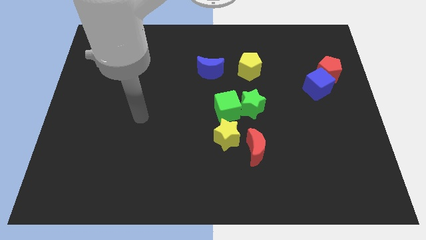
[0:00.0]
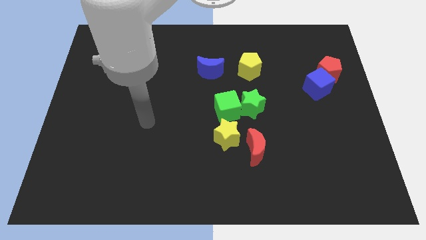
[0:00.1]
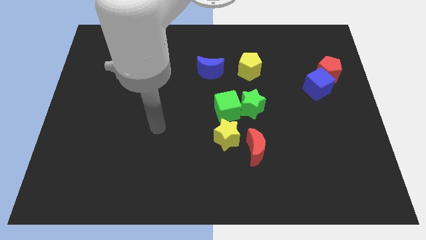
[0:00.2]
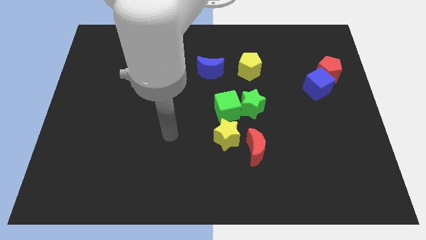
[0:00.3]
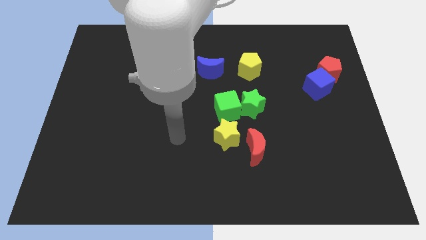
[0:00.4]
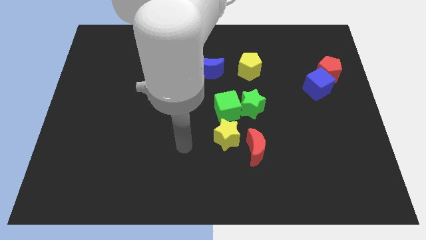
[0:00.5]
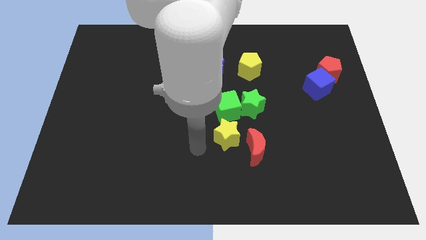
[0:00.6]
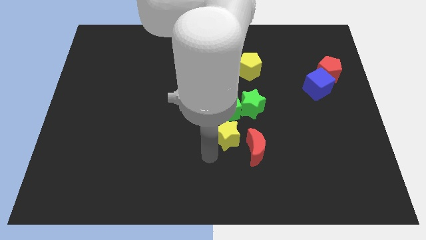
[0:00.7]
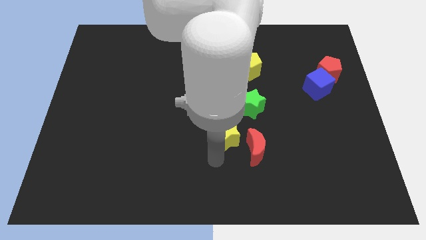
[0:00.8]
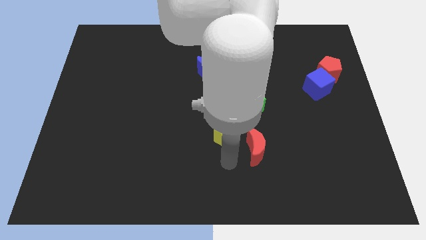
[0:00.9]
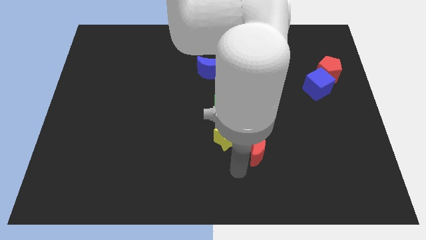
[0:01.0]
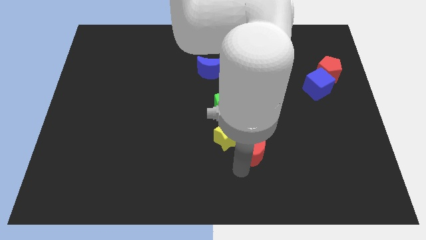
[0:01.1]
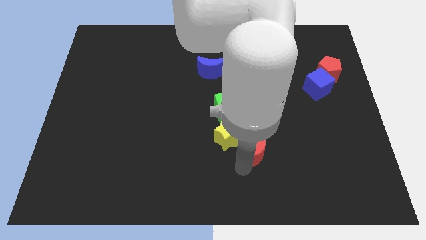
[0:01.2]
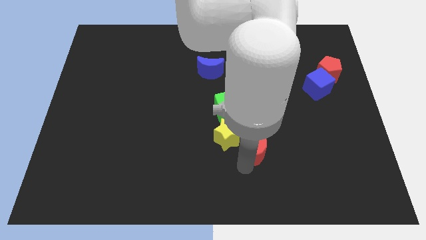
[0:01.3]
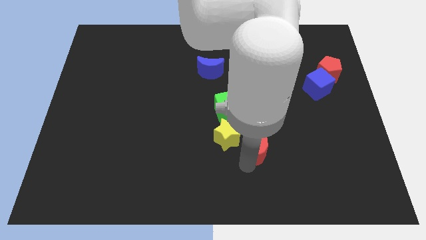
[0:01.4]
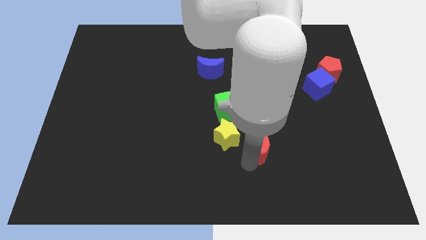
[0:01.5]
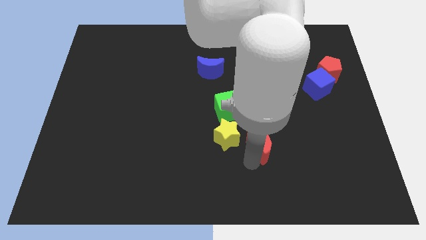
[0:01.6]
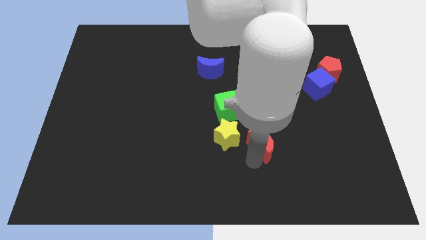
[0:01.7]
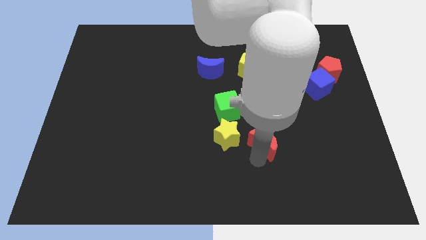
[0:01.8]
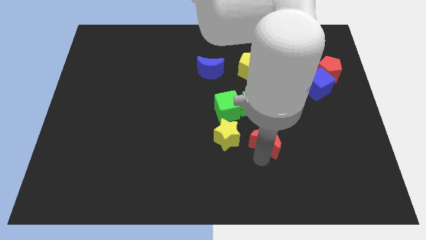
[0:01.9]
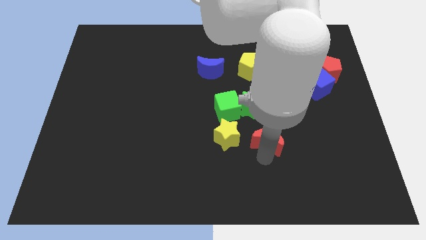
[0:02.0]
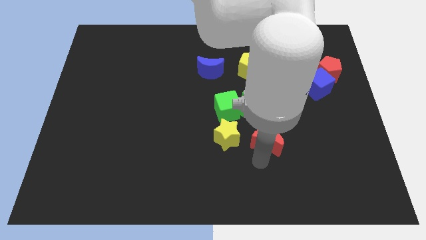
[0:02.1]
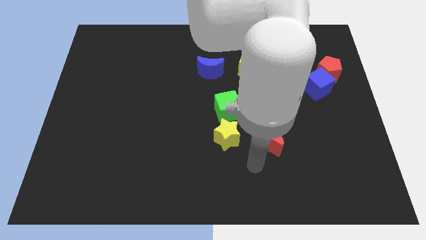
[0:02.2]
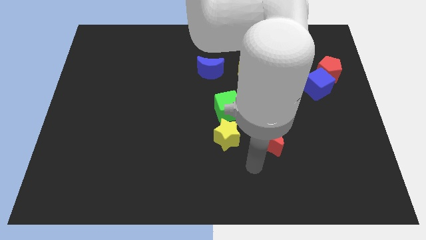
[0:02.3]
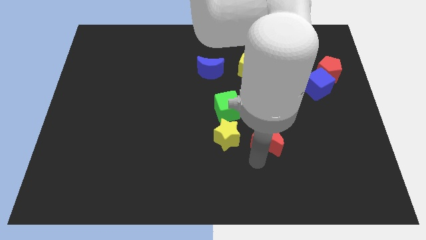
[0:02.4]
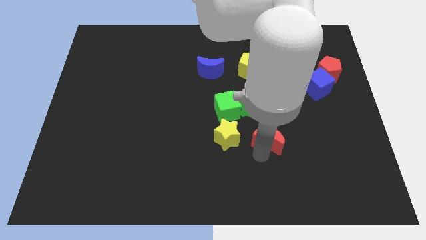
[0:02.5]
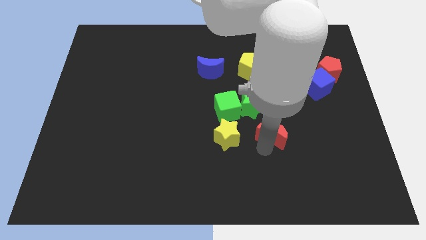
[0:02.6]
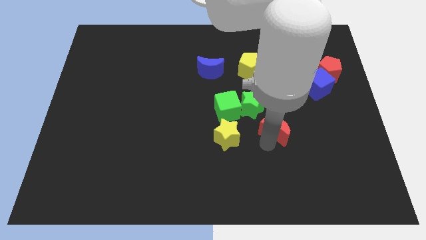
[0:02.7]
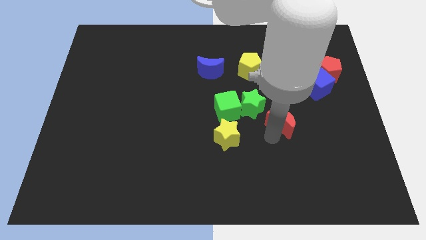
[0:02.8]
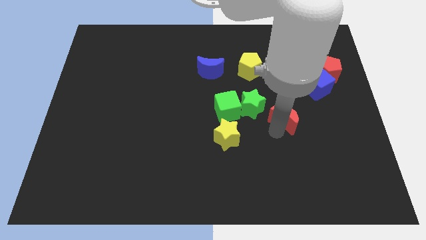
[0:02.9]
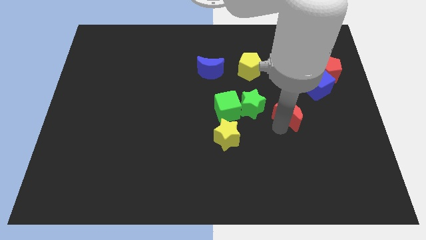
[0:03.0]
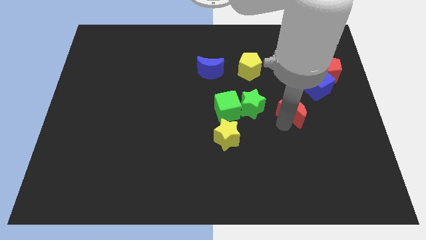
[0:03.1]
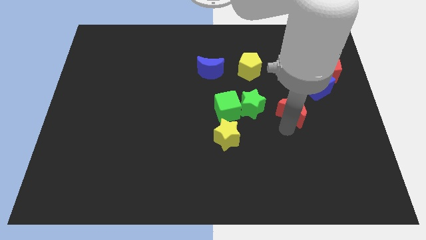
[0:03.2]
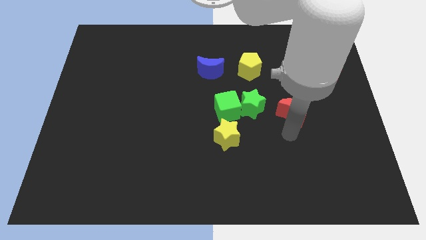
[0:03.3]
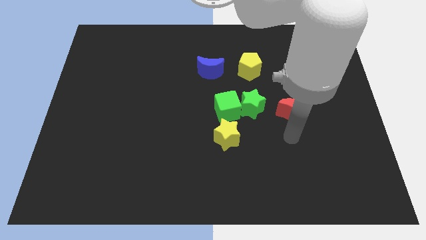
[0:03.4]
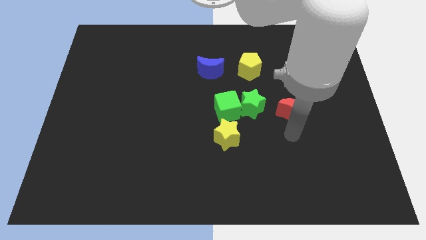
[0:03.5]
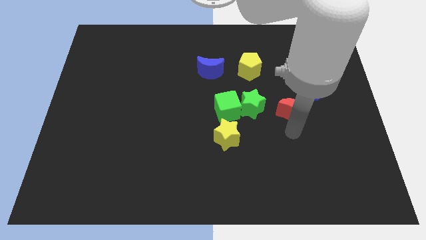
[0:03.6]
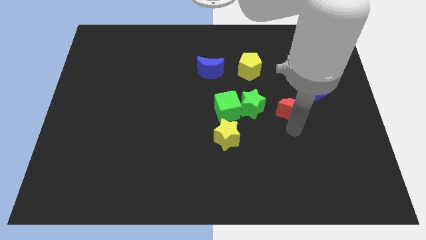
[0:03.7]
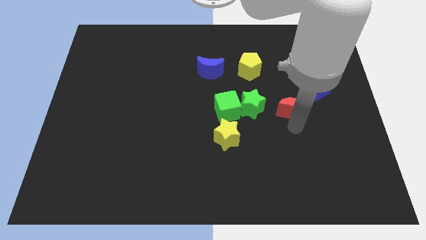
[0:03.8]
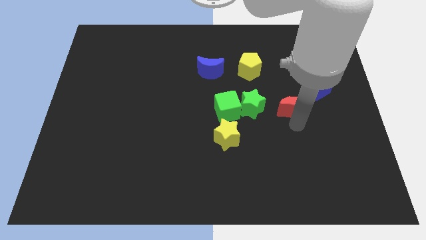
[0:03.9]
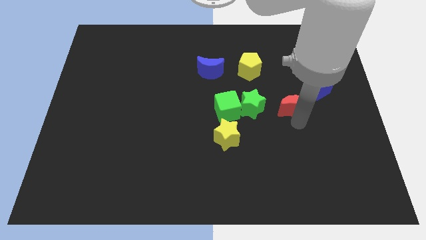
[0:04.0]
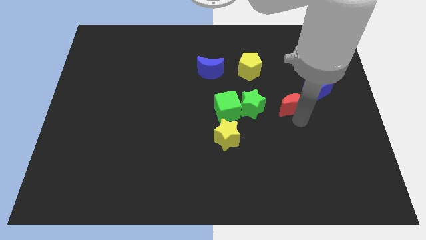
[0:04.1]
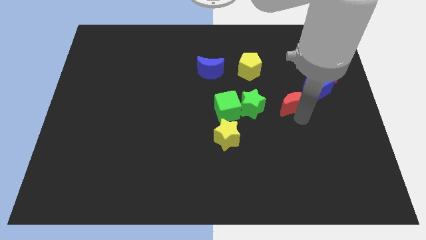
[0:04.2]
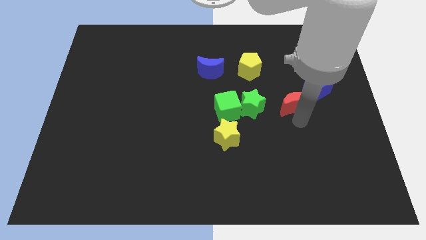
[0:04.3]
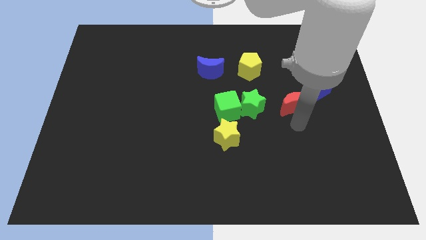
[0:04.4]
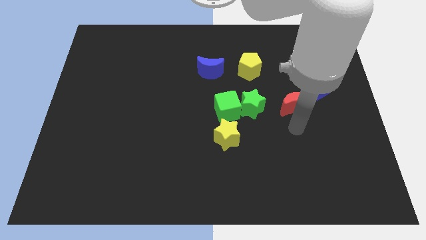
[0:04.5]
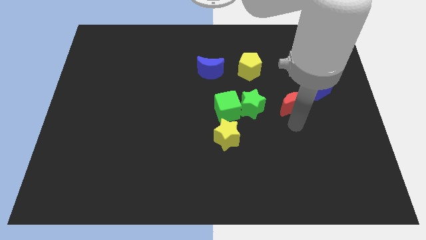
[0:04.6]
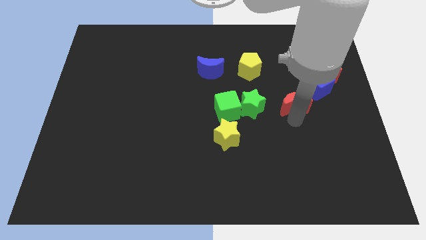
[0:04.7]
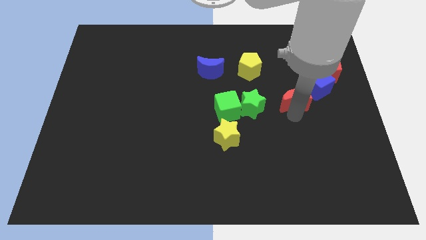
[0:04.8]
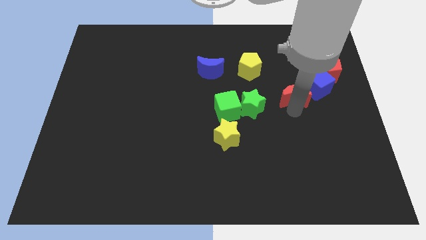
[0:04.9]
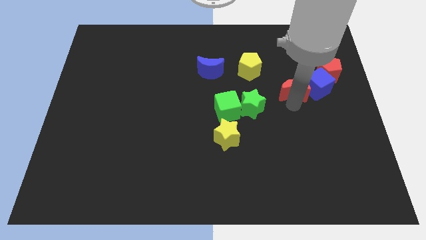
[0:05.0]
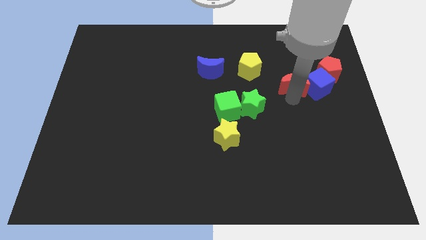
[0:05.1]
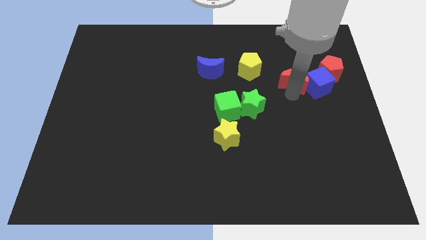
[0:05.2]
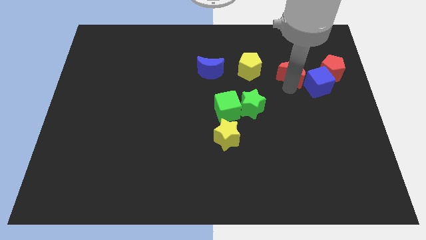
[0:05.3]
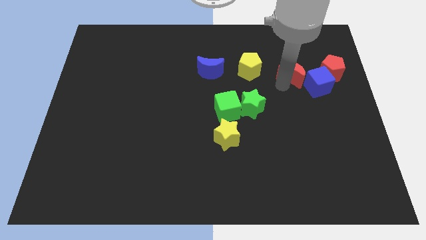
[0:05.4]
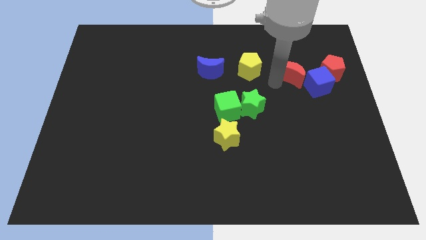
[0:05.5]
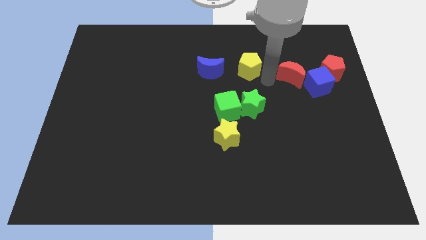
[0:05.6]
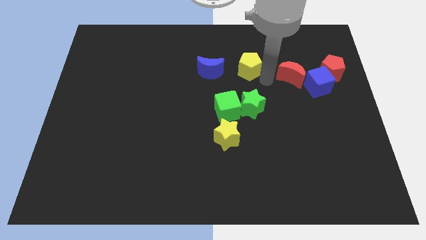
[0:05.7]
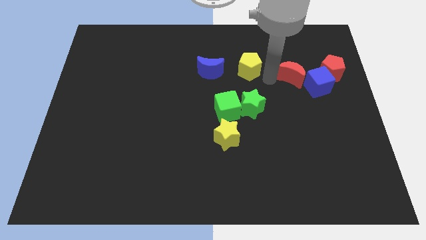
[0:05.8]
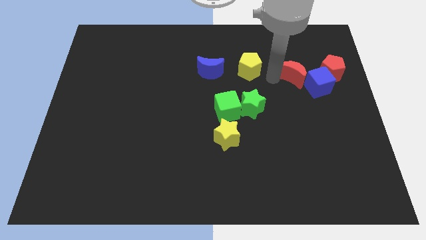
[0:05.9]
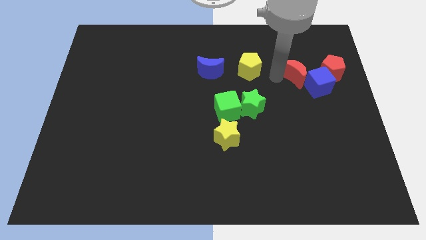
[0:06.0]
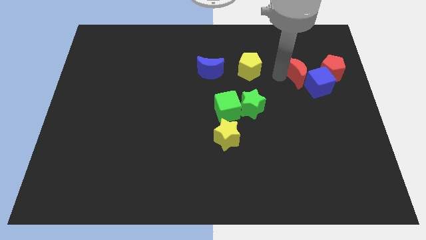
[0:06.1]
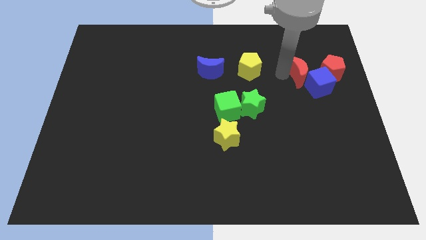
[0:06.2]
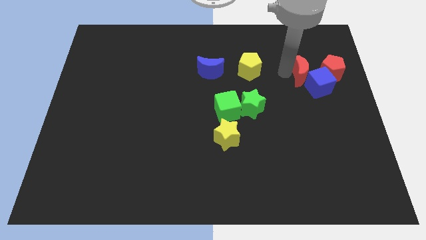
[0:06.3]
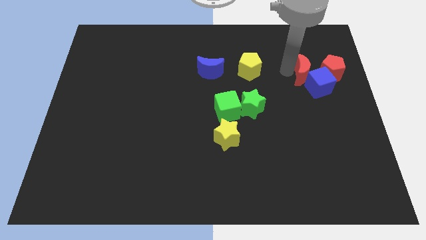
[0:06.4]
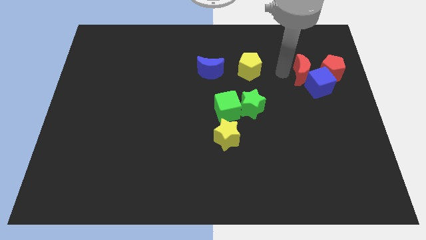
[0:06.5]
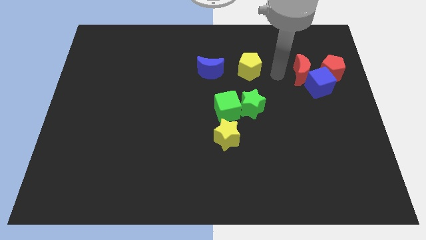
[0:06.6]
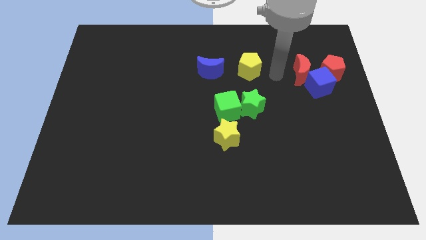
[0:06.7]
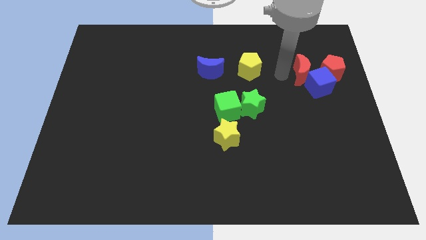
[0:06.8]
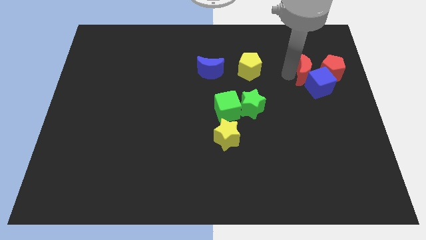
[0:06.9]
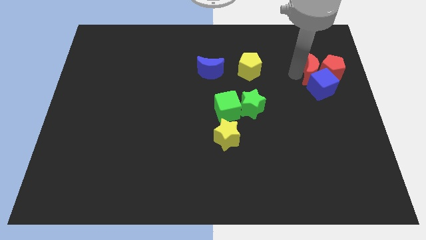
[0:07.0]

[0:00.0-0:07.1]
push the red moon towards the red pentagon
